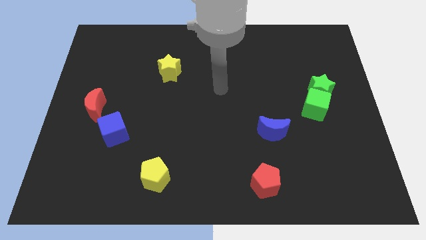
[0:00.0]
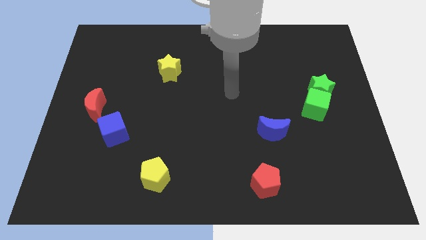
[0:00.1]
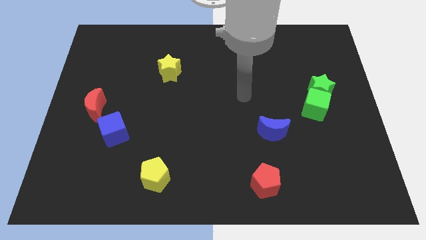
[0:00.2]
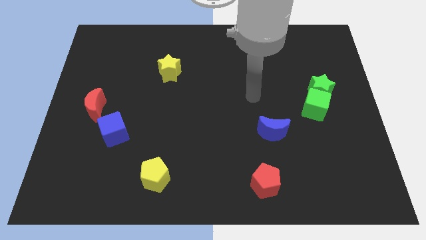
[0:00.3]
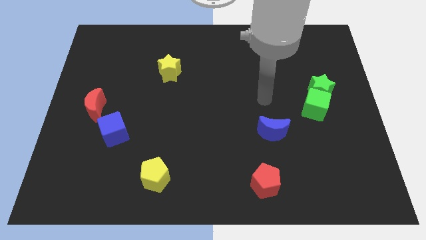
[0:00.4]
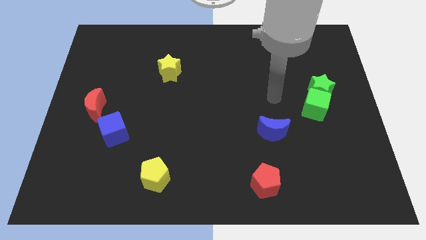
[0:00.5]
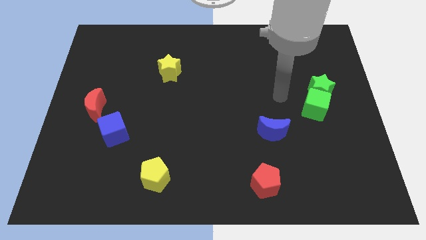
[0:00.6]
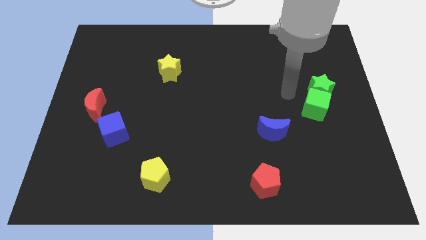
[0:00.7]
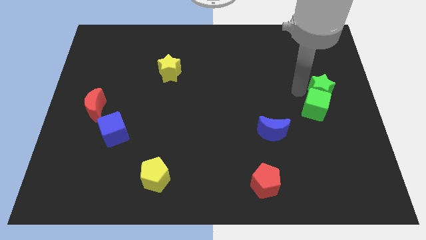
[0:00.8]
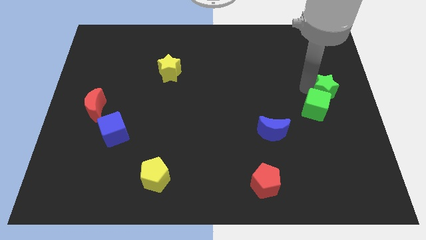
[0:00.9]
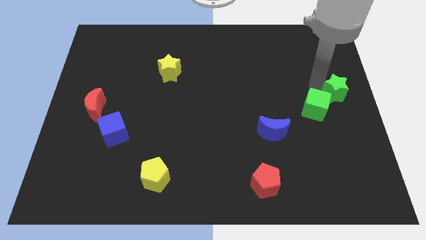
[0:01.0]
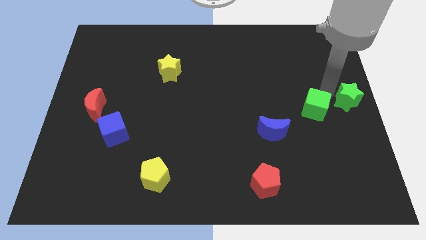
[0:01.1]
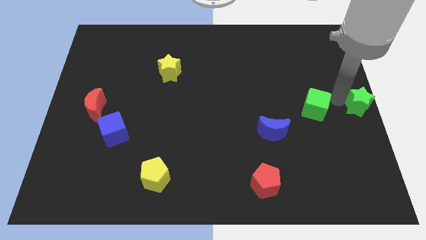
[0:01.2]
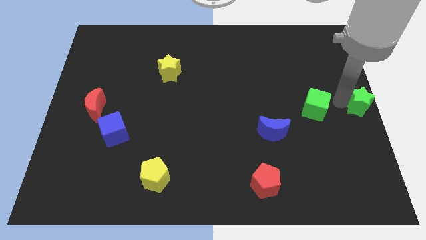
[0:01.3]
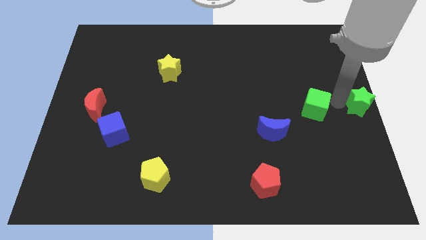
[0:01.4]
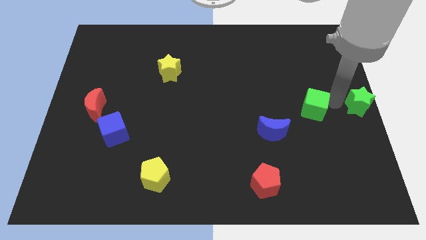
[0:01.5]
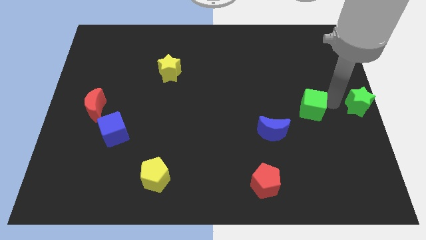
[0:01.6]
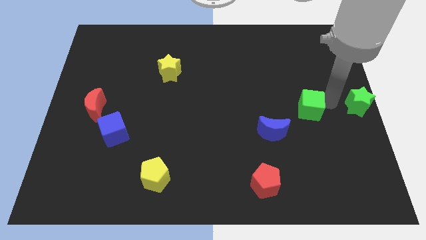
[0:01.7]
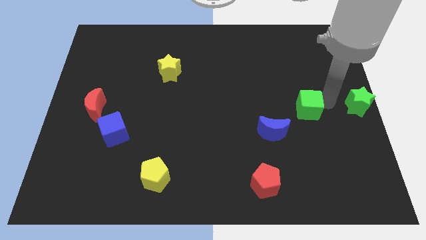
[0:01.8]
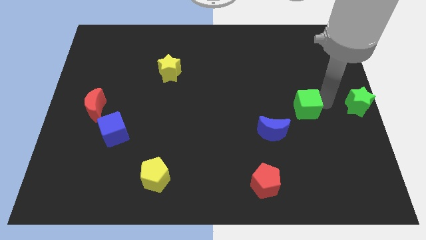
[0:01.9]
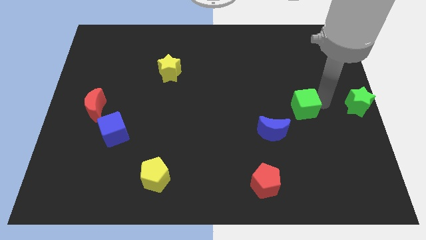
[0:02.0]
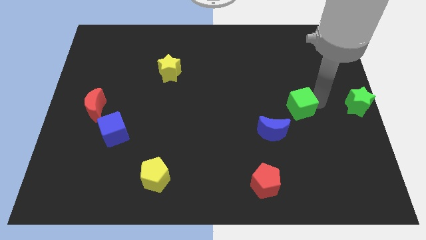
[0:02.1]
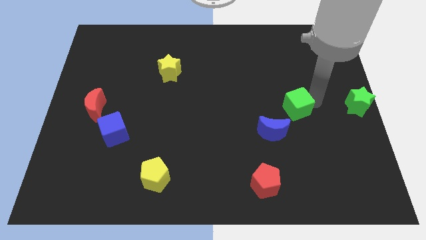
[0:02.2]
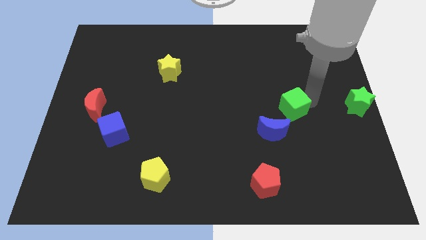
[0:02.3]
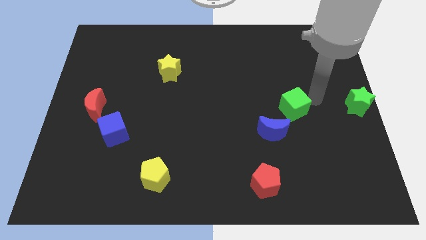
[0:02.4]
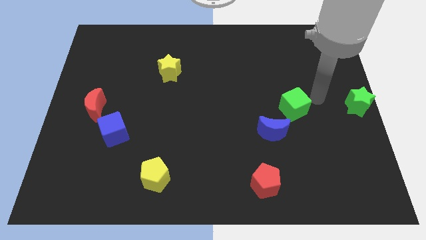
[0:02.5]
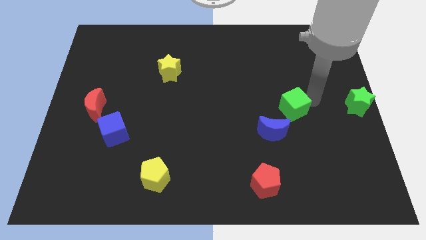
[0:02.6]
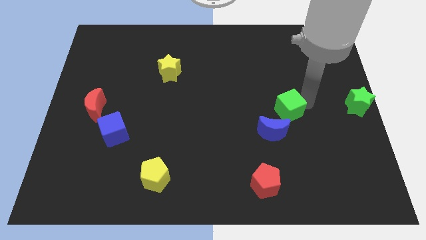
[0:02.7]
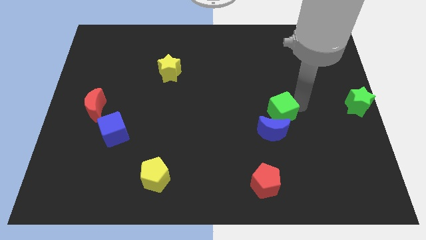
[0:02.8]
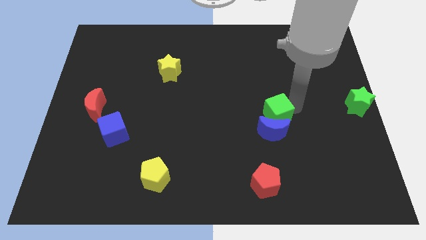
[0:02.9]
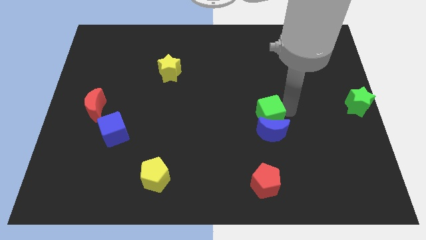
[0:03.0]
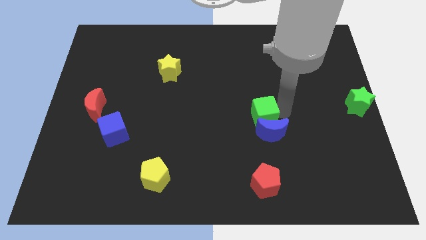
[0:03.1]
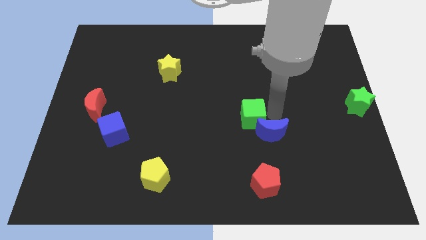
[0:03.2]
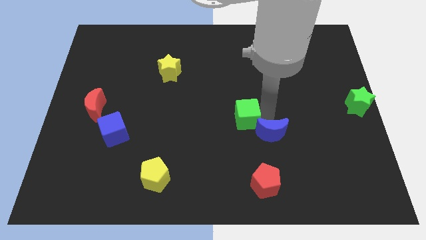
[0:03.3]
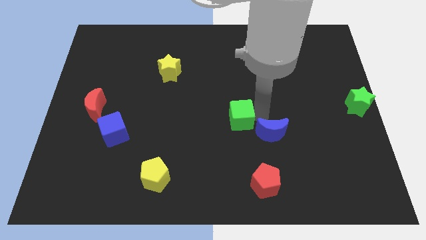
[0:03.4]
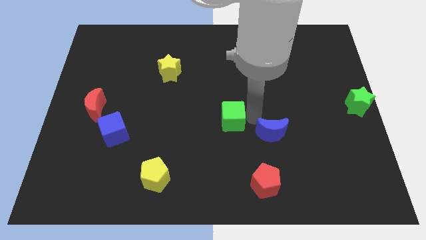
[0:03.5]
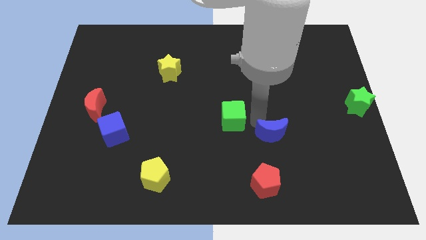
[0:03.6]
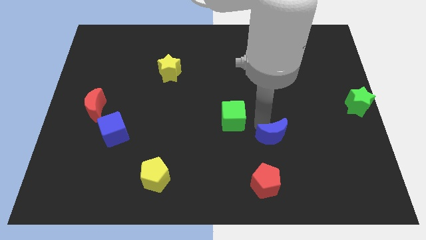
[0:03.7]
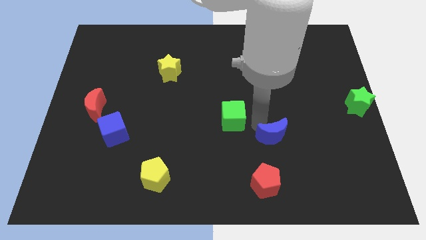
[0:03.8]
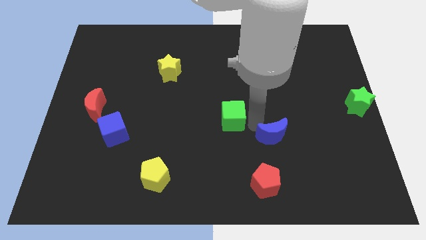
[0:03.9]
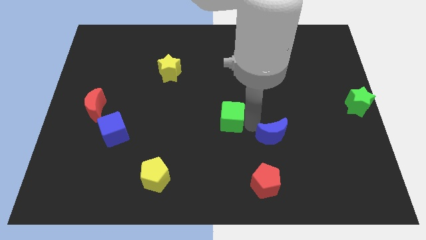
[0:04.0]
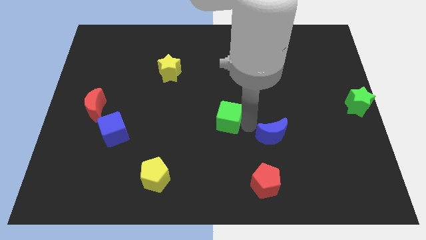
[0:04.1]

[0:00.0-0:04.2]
slide the green cube left

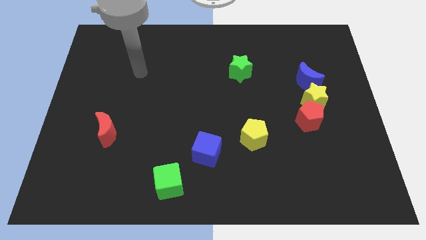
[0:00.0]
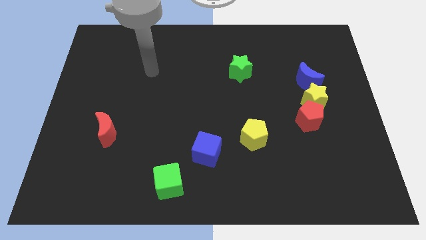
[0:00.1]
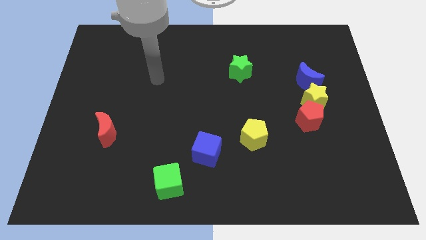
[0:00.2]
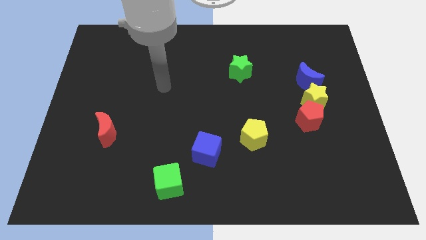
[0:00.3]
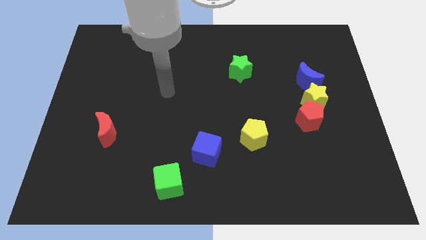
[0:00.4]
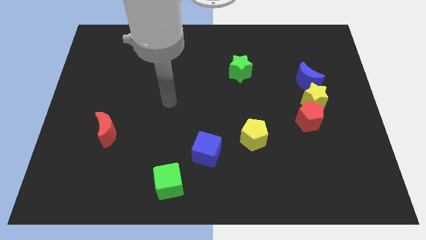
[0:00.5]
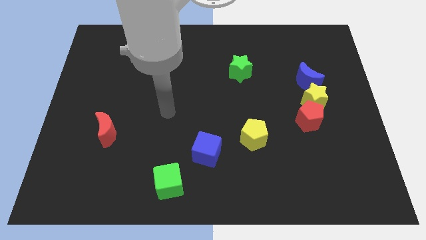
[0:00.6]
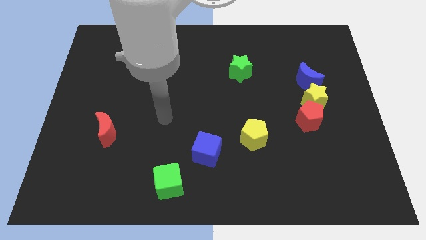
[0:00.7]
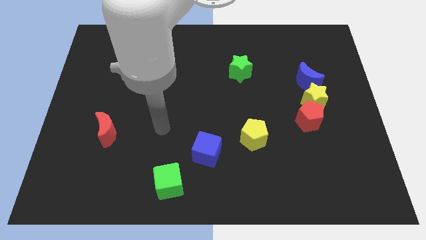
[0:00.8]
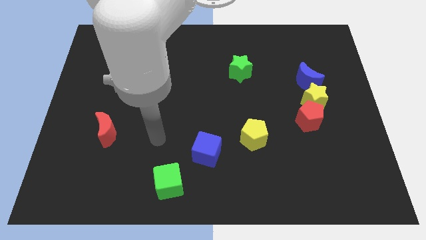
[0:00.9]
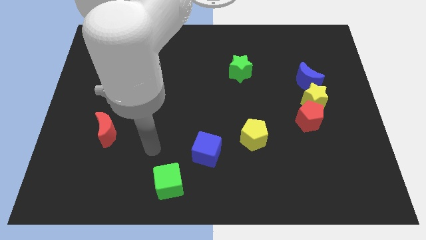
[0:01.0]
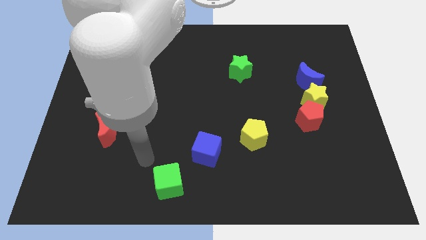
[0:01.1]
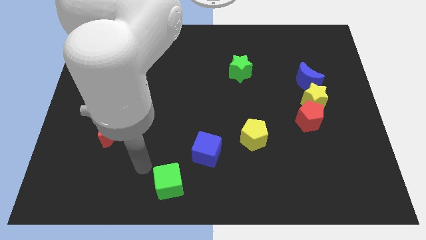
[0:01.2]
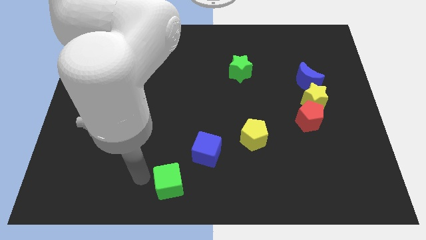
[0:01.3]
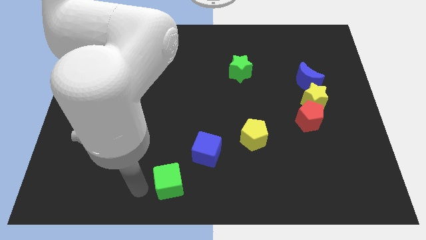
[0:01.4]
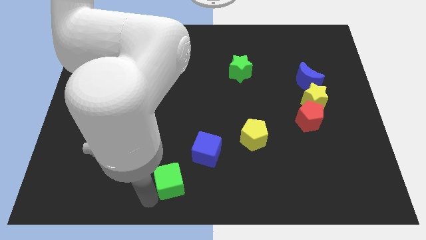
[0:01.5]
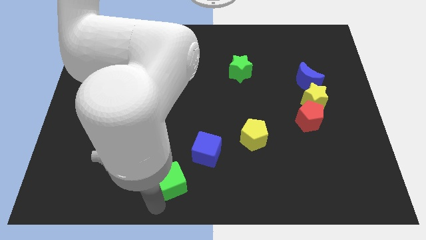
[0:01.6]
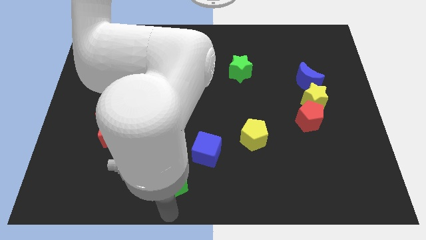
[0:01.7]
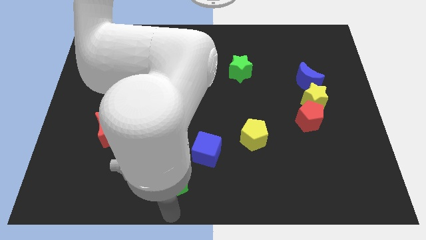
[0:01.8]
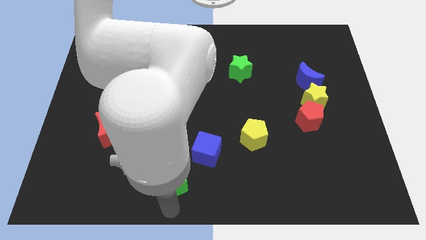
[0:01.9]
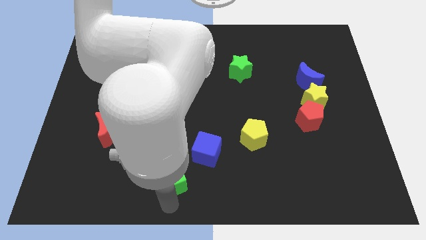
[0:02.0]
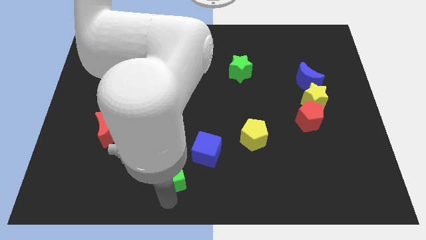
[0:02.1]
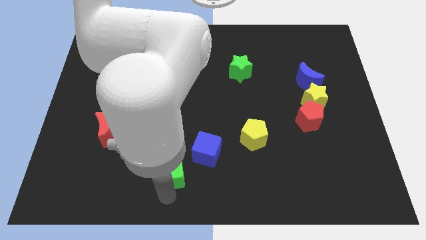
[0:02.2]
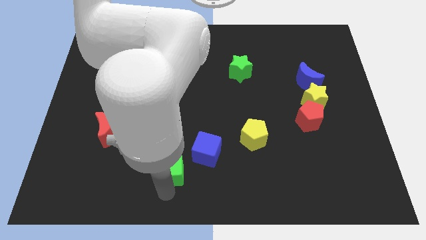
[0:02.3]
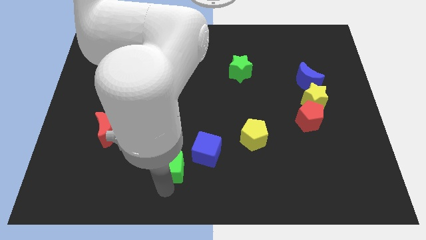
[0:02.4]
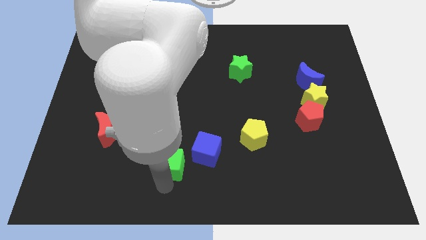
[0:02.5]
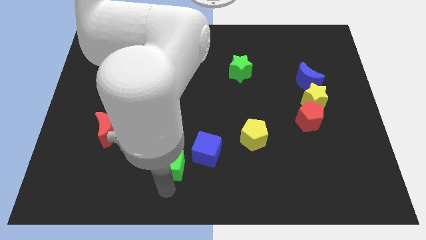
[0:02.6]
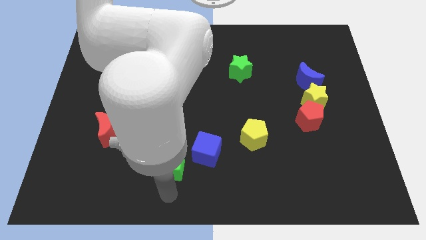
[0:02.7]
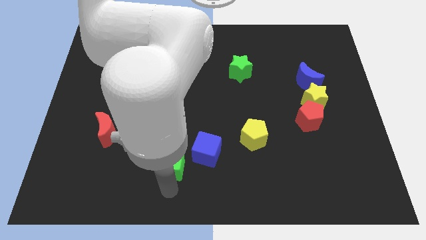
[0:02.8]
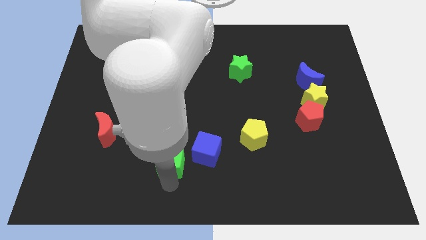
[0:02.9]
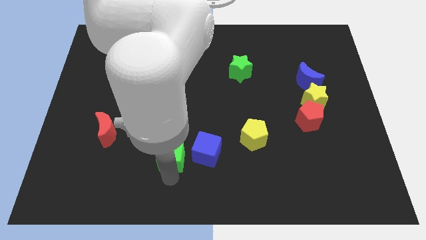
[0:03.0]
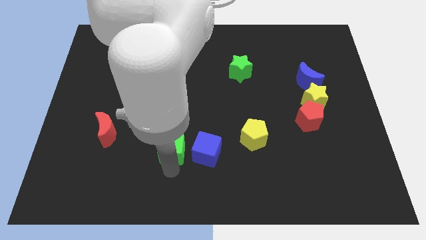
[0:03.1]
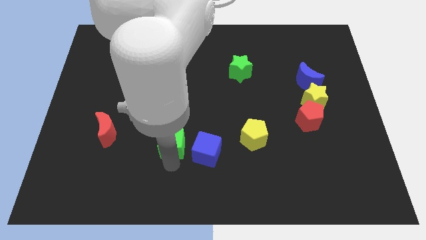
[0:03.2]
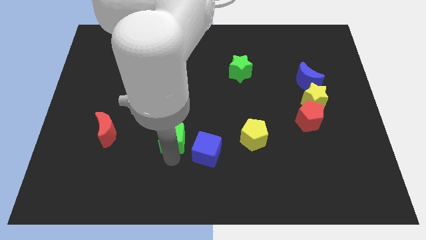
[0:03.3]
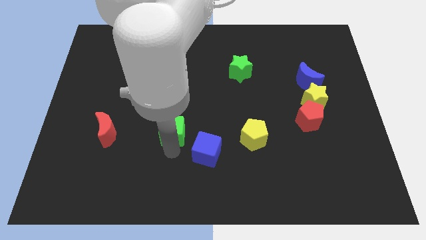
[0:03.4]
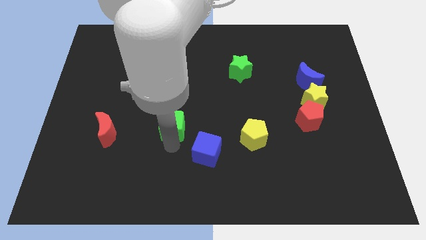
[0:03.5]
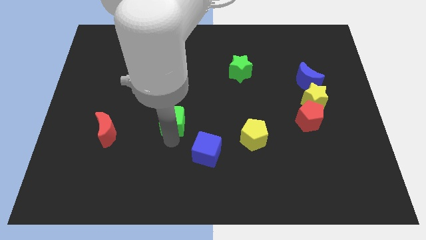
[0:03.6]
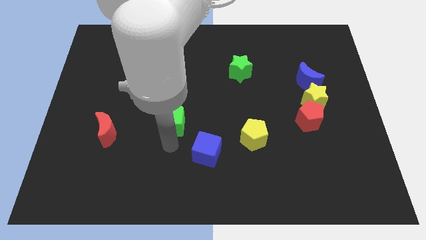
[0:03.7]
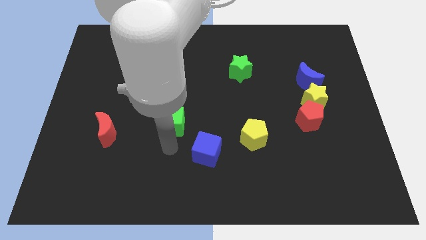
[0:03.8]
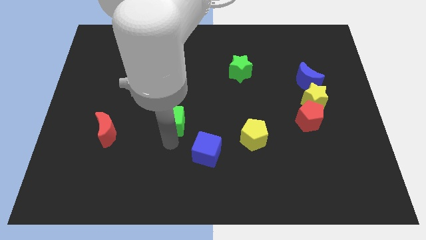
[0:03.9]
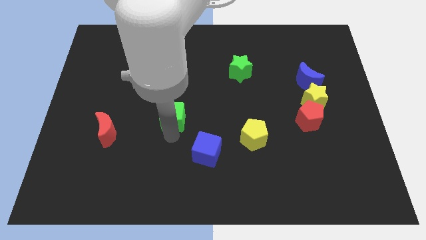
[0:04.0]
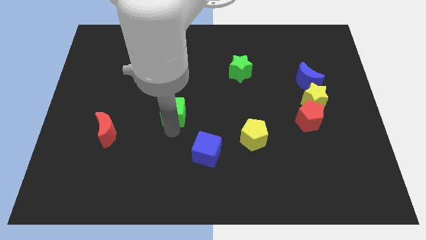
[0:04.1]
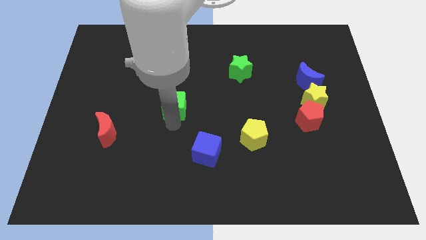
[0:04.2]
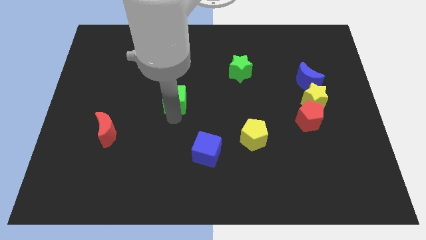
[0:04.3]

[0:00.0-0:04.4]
slide the green cube up
